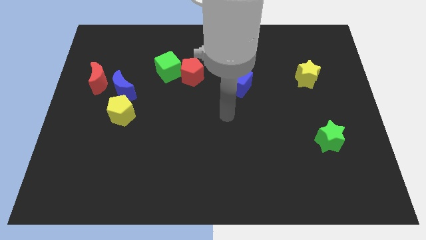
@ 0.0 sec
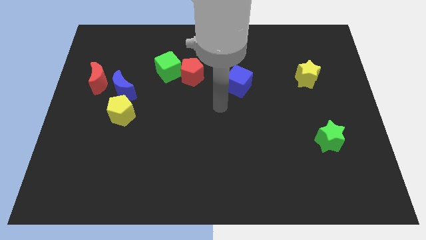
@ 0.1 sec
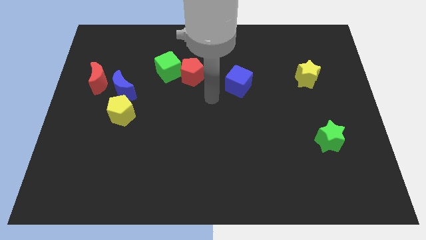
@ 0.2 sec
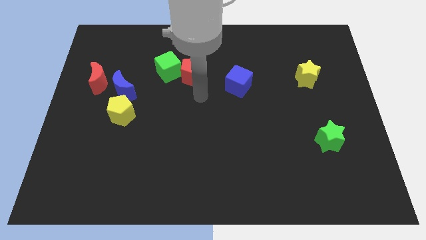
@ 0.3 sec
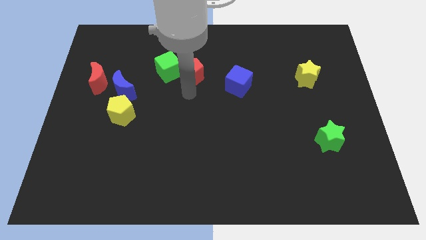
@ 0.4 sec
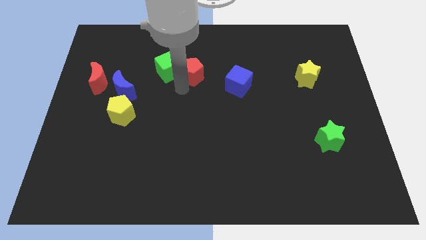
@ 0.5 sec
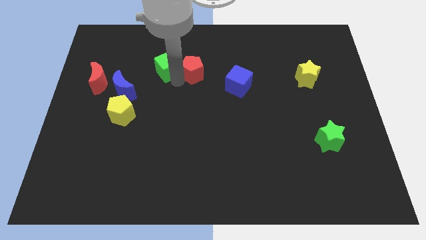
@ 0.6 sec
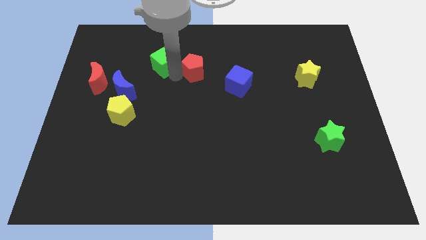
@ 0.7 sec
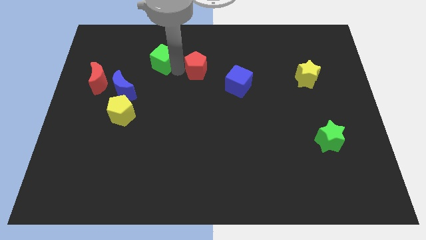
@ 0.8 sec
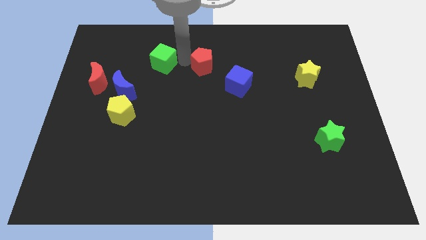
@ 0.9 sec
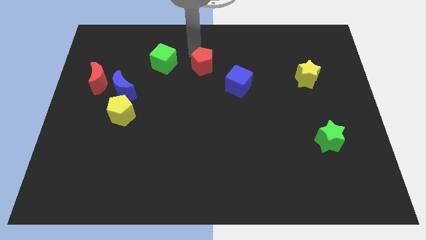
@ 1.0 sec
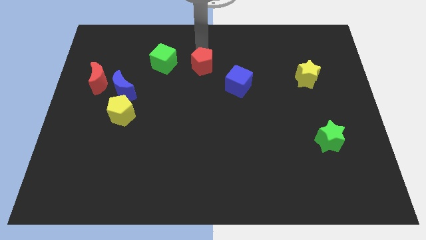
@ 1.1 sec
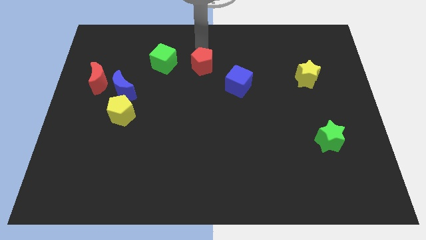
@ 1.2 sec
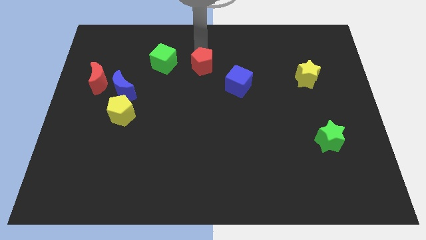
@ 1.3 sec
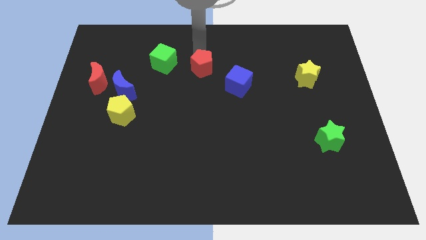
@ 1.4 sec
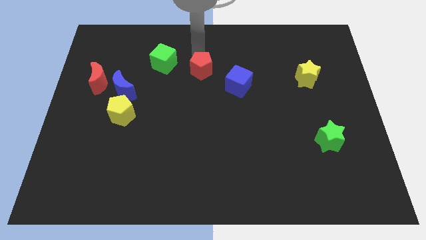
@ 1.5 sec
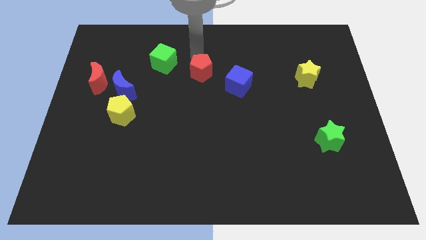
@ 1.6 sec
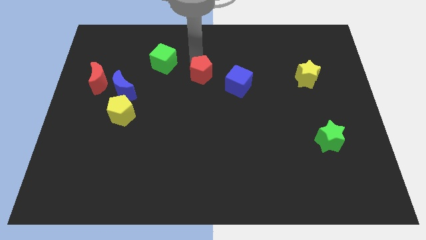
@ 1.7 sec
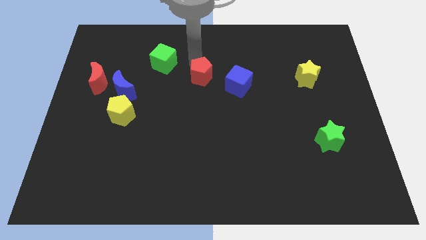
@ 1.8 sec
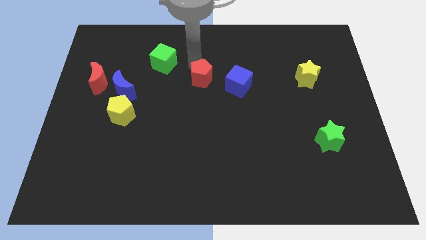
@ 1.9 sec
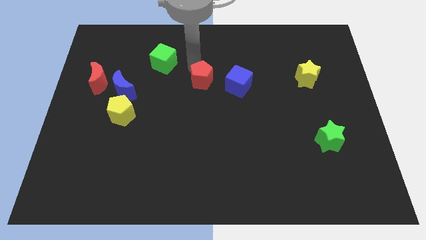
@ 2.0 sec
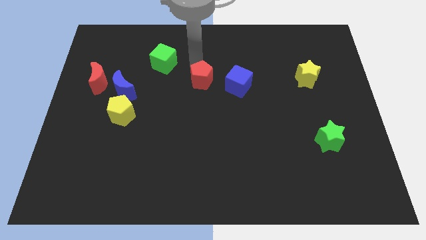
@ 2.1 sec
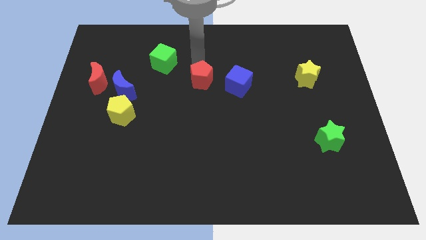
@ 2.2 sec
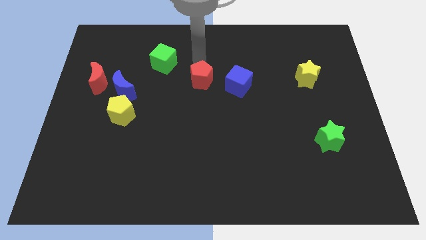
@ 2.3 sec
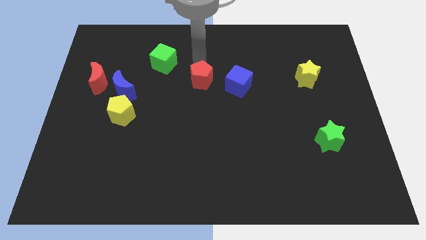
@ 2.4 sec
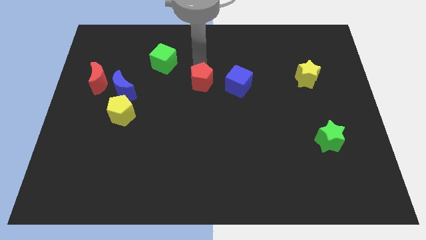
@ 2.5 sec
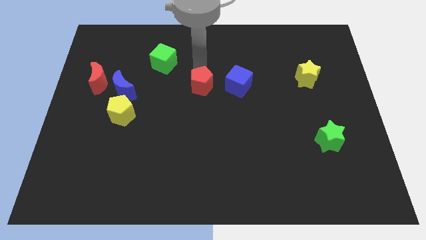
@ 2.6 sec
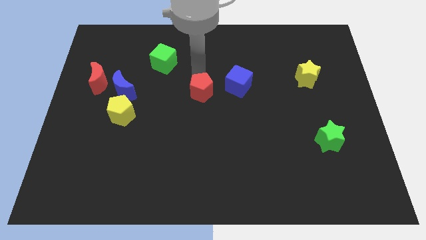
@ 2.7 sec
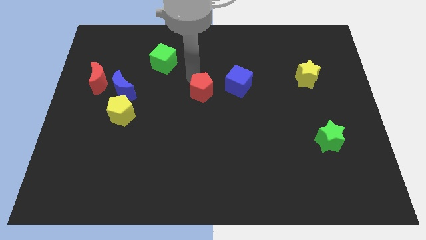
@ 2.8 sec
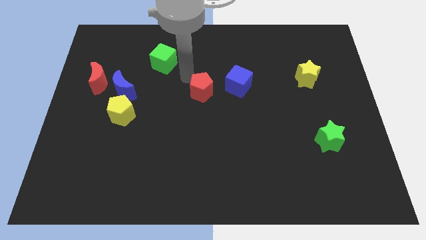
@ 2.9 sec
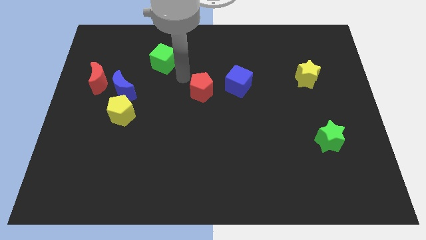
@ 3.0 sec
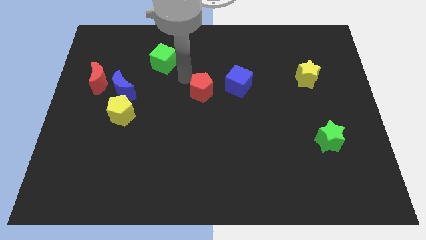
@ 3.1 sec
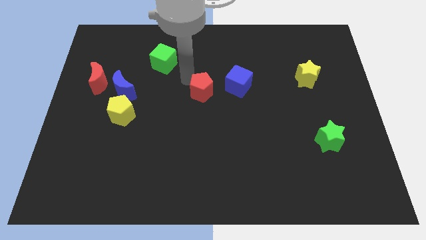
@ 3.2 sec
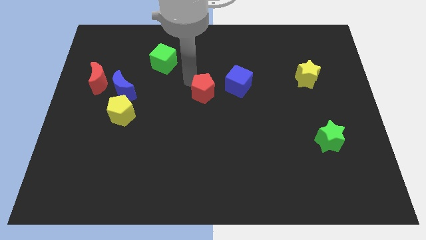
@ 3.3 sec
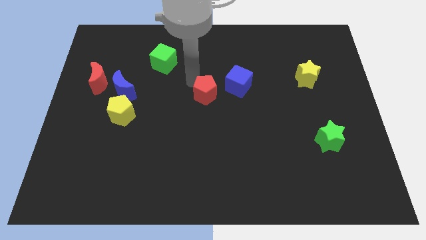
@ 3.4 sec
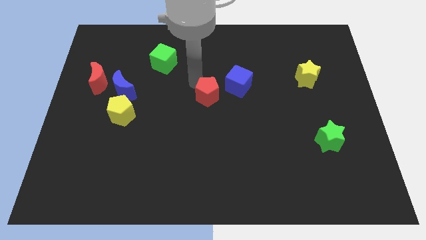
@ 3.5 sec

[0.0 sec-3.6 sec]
slightly slide the red pentagon down and to the right diagonally

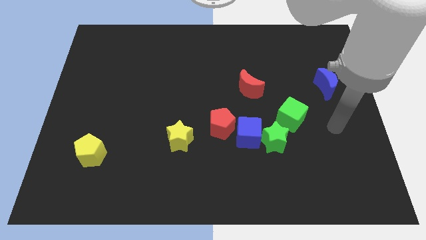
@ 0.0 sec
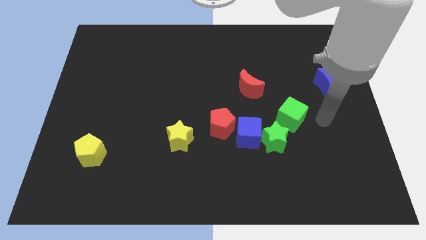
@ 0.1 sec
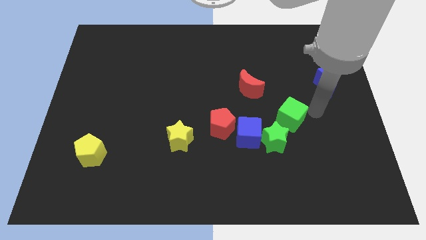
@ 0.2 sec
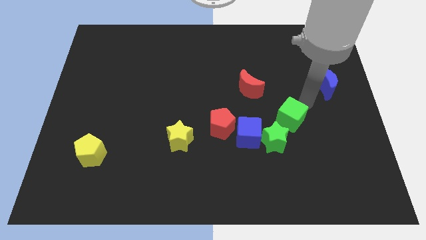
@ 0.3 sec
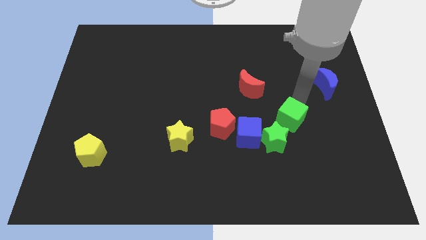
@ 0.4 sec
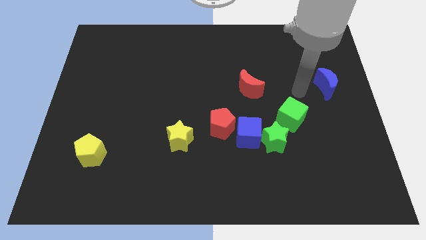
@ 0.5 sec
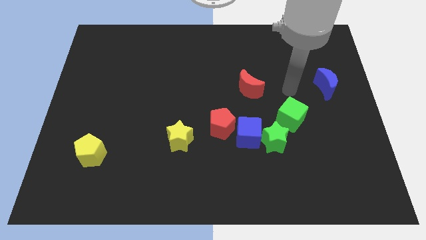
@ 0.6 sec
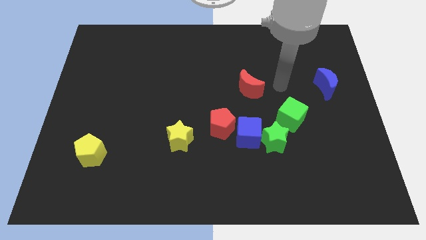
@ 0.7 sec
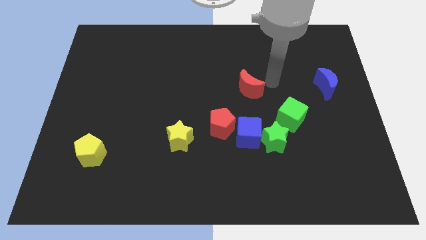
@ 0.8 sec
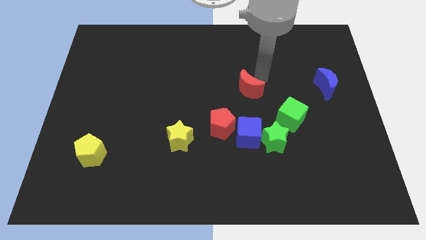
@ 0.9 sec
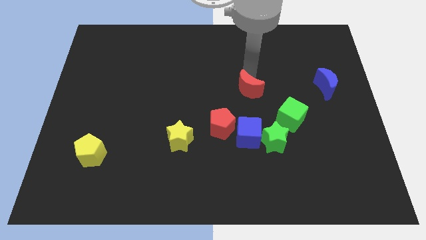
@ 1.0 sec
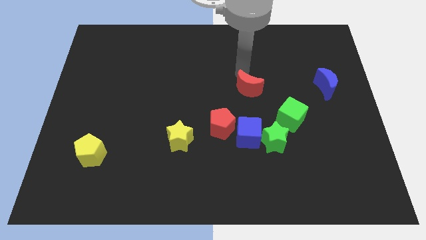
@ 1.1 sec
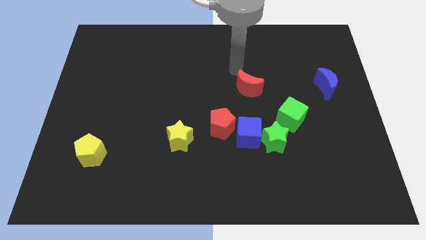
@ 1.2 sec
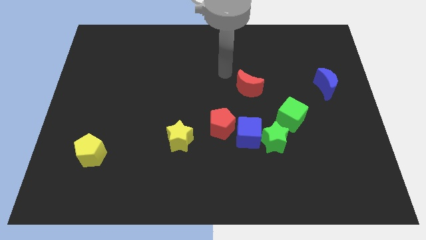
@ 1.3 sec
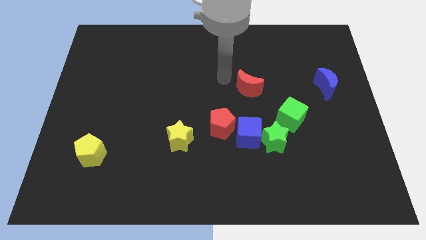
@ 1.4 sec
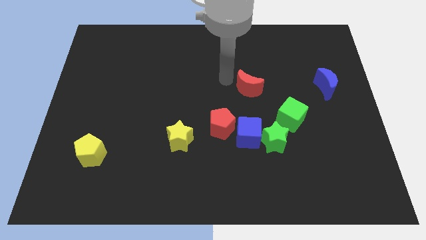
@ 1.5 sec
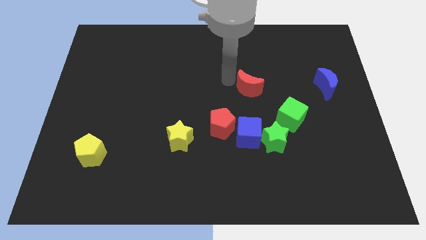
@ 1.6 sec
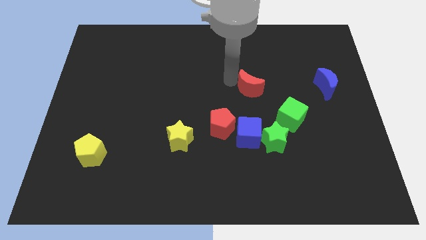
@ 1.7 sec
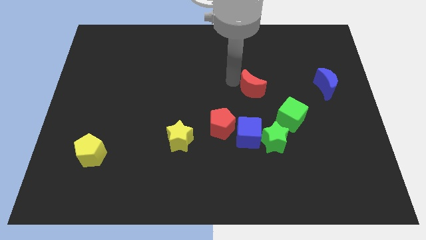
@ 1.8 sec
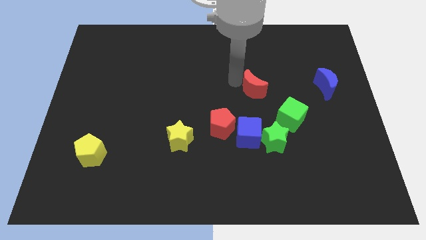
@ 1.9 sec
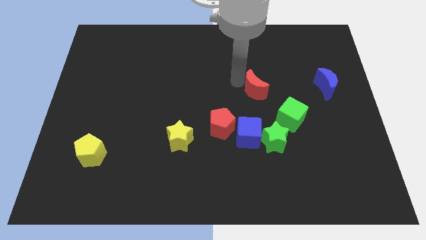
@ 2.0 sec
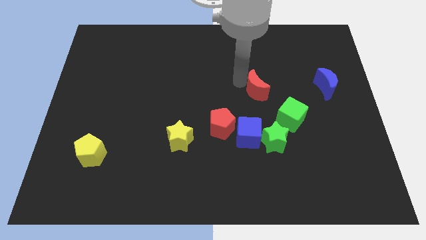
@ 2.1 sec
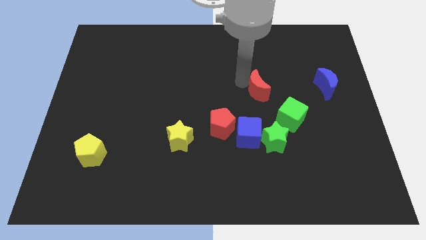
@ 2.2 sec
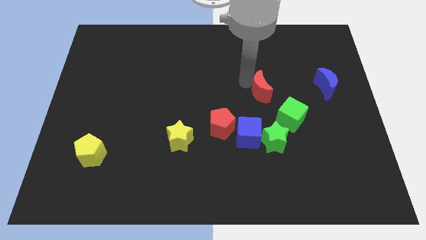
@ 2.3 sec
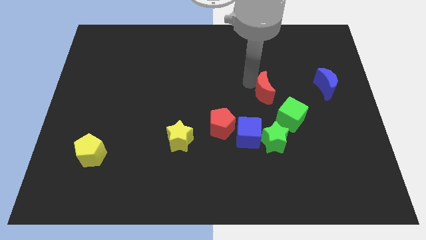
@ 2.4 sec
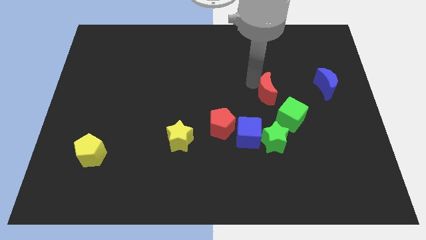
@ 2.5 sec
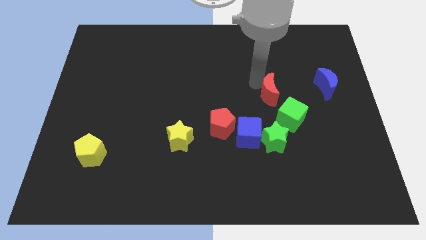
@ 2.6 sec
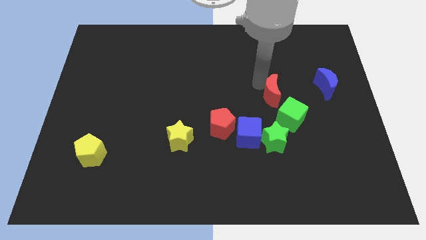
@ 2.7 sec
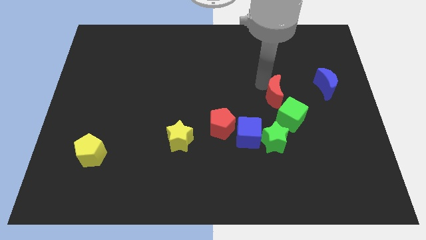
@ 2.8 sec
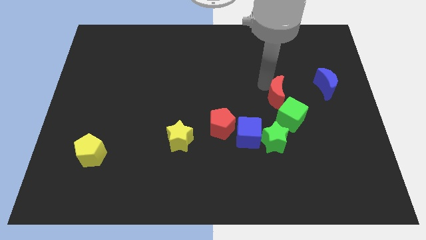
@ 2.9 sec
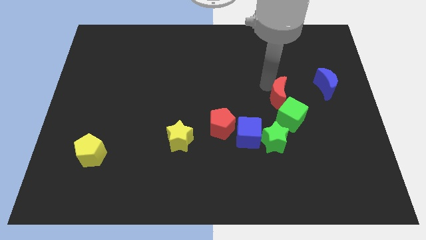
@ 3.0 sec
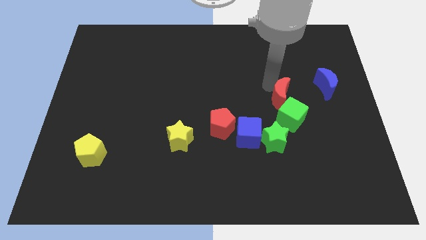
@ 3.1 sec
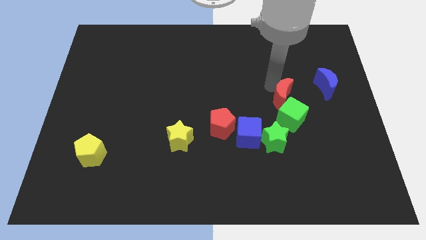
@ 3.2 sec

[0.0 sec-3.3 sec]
push the red moon a little down and to the right

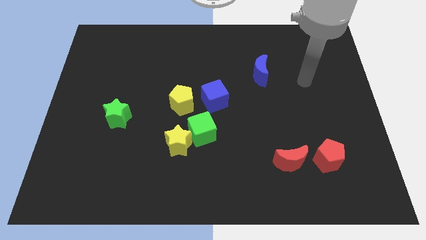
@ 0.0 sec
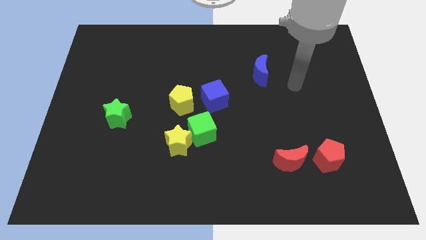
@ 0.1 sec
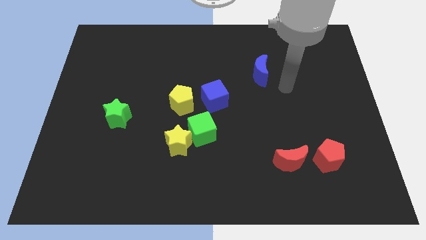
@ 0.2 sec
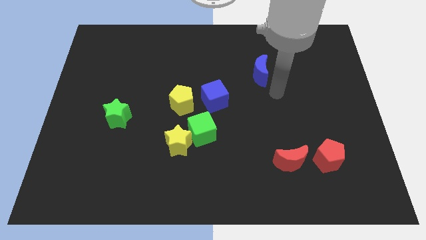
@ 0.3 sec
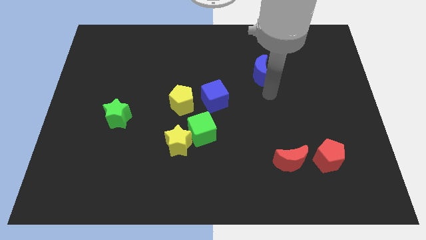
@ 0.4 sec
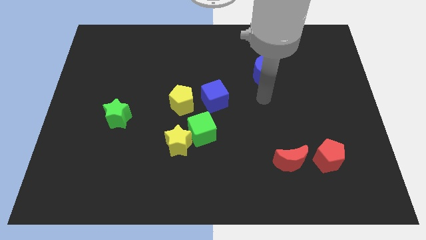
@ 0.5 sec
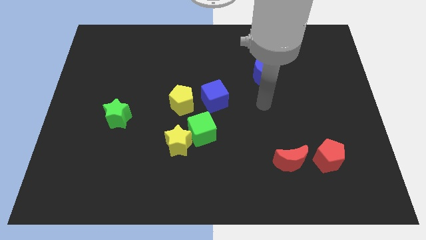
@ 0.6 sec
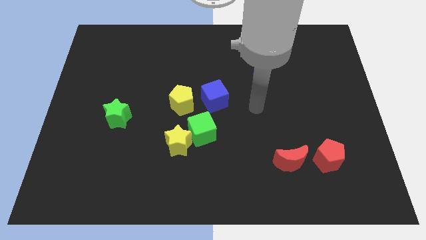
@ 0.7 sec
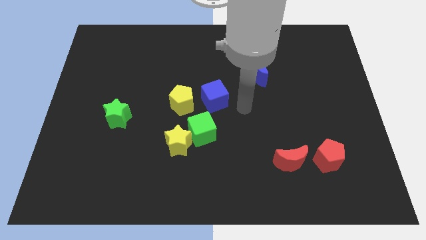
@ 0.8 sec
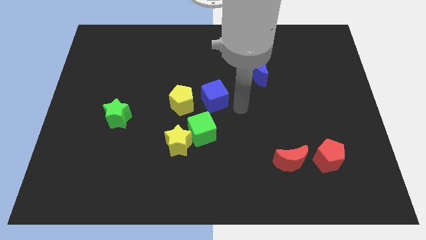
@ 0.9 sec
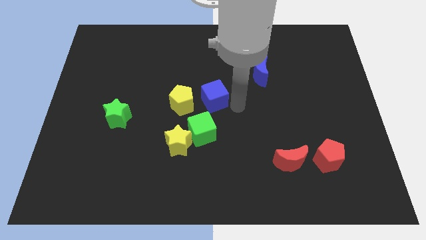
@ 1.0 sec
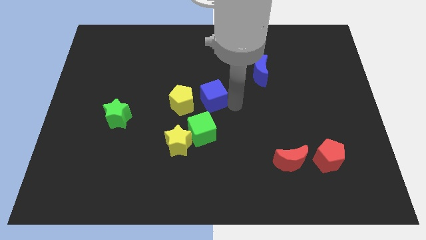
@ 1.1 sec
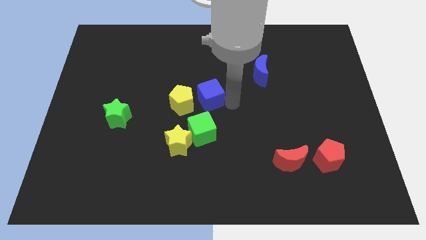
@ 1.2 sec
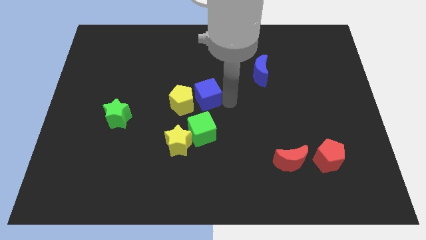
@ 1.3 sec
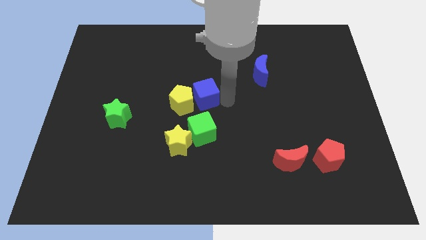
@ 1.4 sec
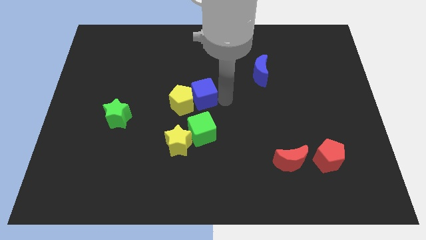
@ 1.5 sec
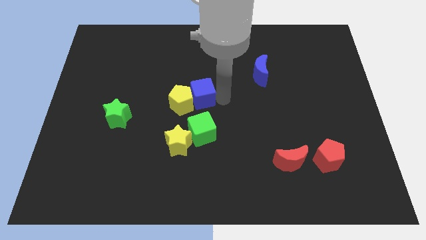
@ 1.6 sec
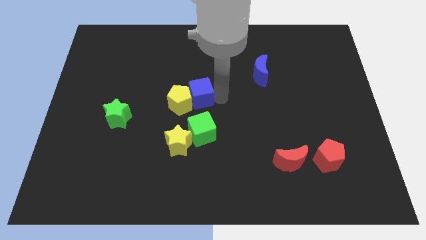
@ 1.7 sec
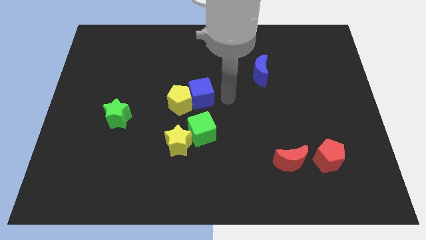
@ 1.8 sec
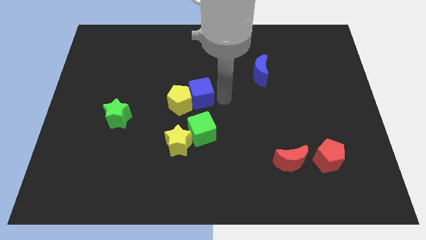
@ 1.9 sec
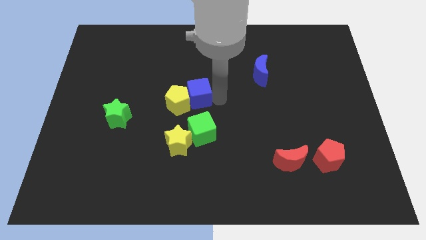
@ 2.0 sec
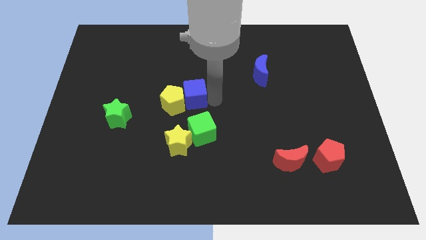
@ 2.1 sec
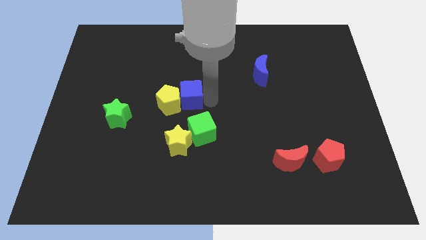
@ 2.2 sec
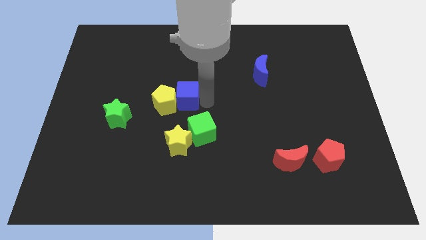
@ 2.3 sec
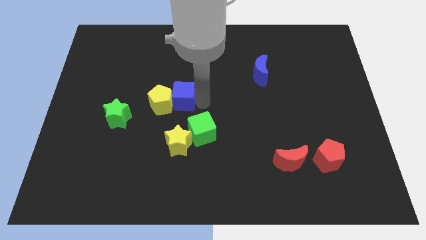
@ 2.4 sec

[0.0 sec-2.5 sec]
move the blue cube to the left a little bit
